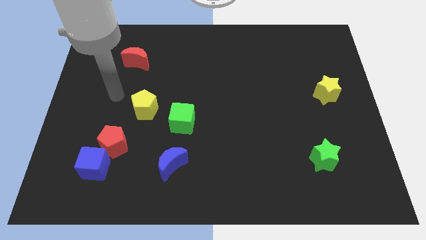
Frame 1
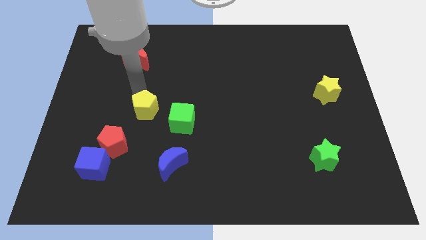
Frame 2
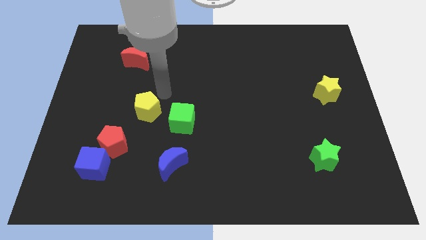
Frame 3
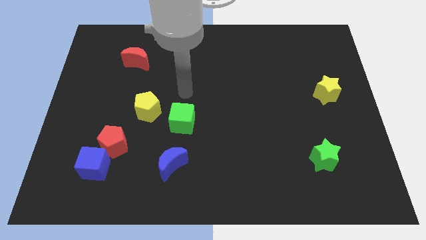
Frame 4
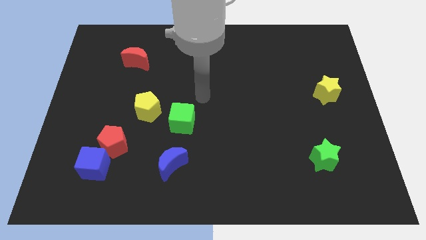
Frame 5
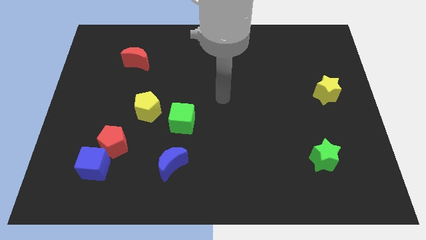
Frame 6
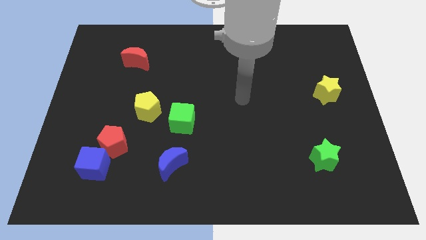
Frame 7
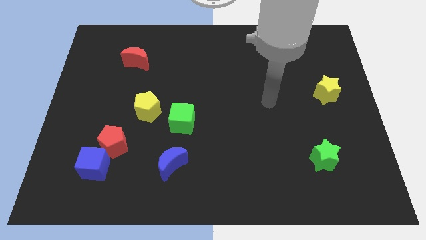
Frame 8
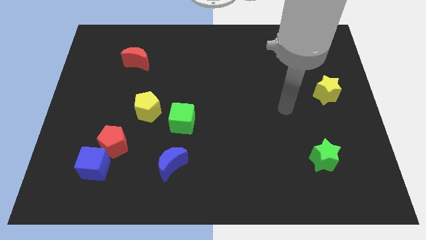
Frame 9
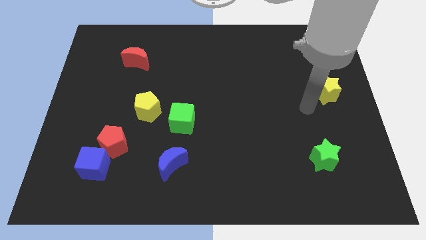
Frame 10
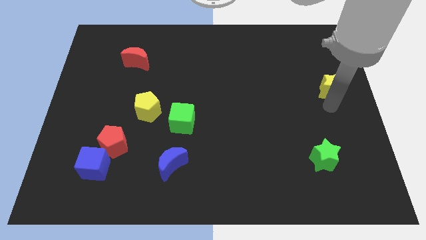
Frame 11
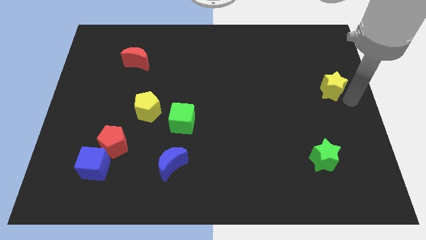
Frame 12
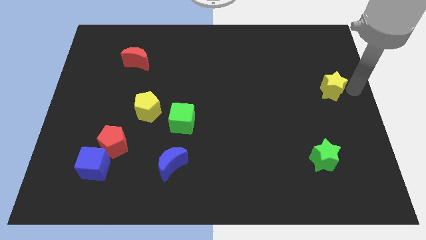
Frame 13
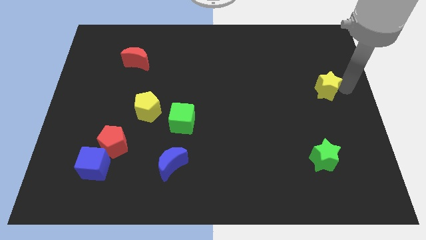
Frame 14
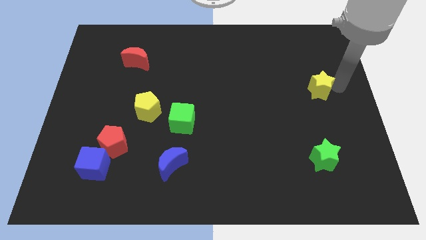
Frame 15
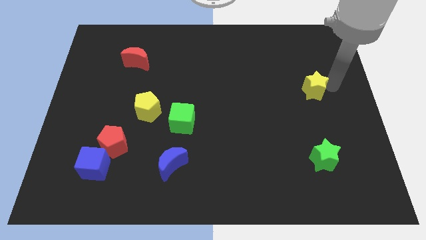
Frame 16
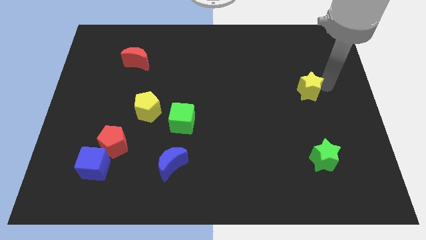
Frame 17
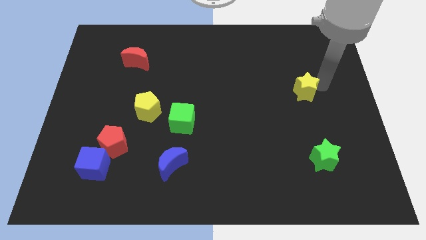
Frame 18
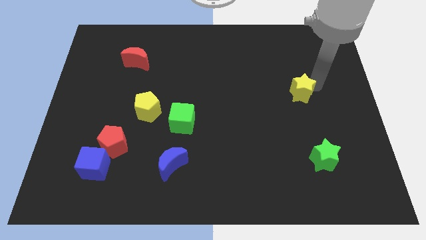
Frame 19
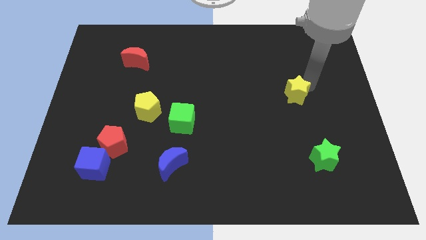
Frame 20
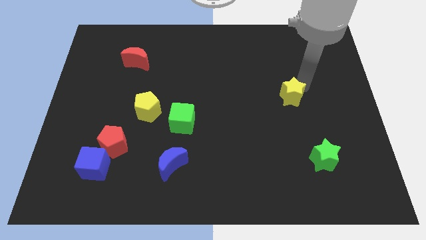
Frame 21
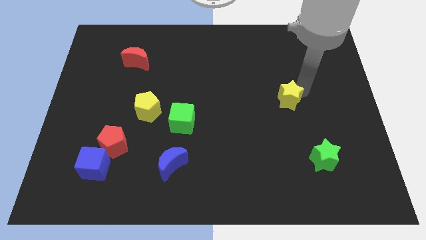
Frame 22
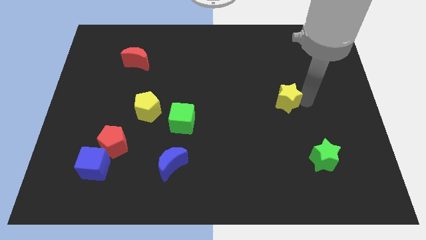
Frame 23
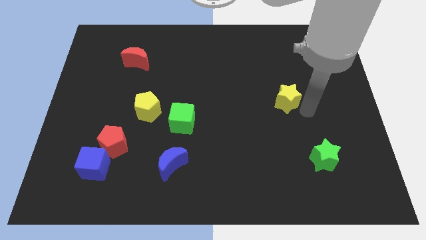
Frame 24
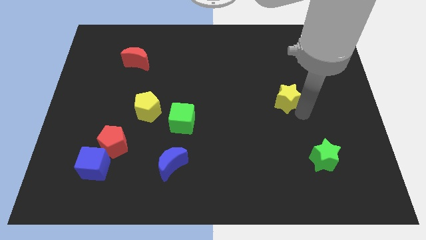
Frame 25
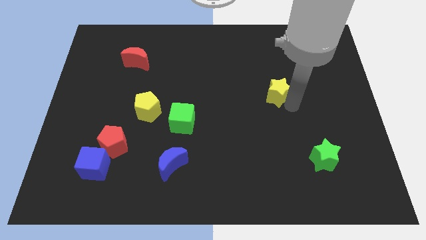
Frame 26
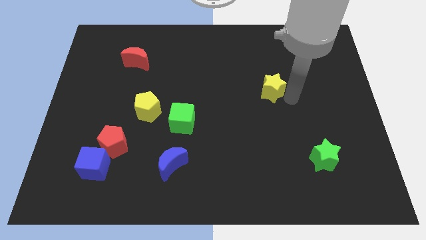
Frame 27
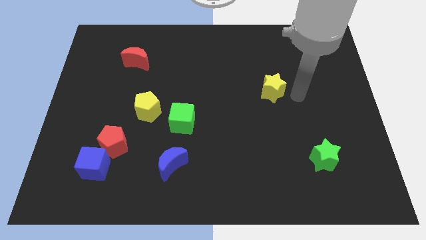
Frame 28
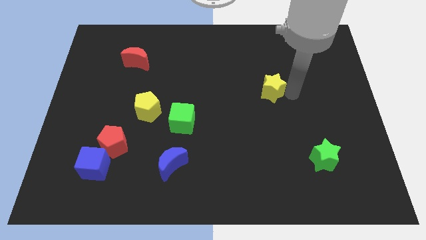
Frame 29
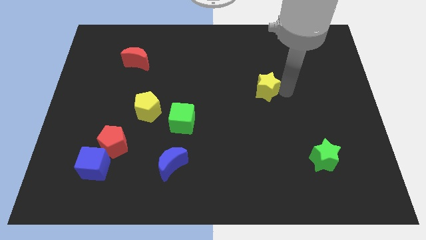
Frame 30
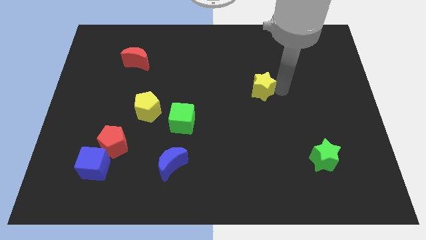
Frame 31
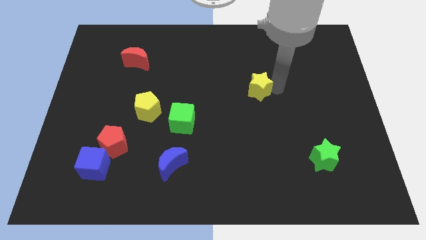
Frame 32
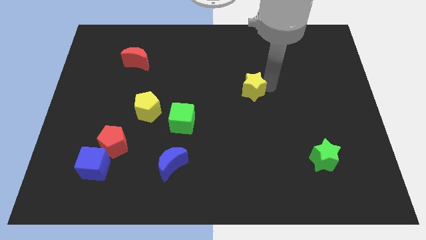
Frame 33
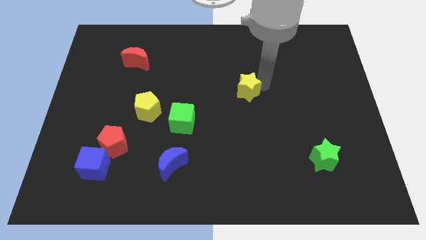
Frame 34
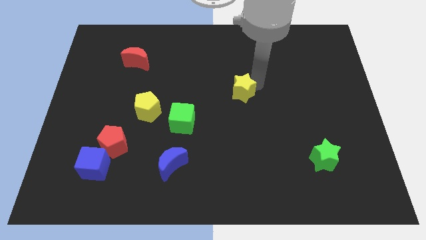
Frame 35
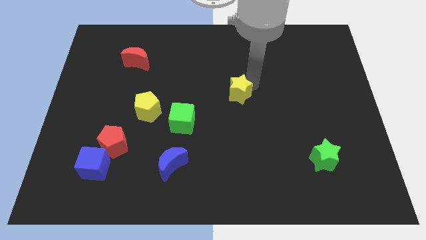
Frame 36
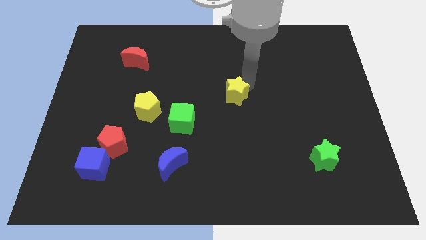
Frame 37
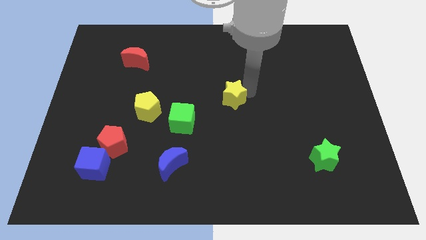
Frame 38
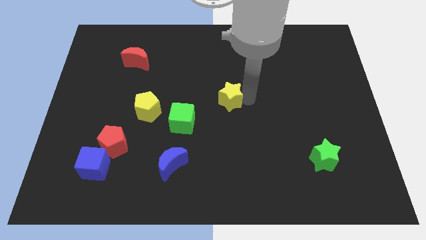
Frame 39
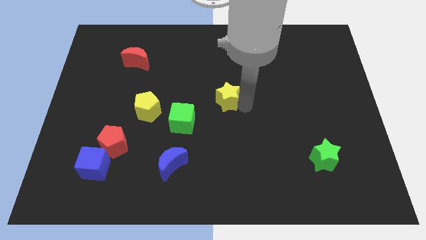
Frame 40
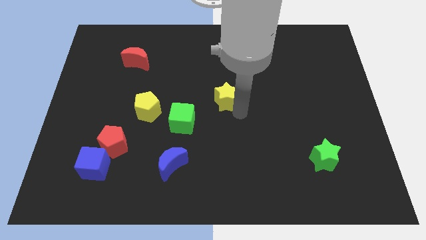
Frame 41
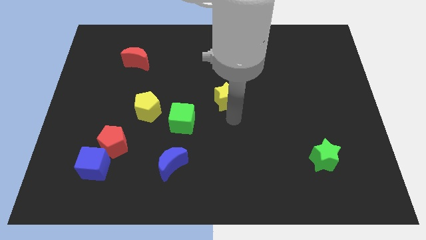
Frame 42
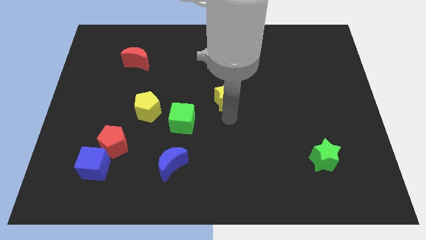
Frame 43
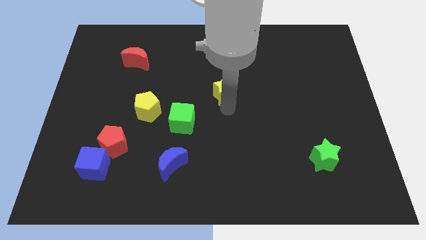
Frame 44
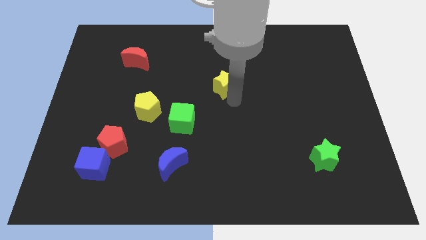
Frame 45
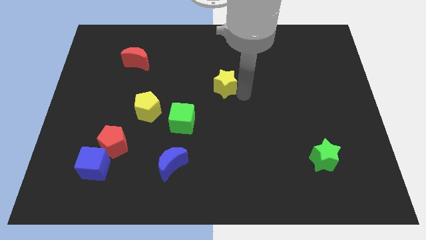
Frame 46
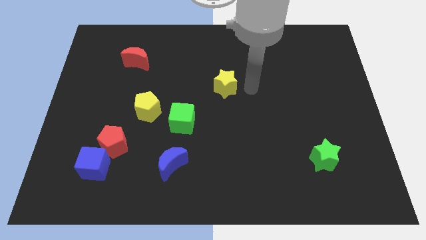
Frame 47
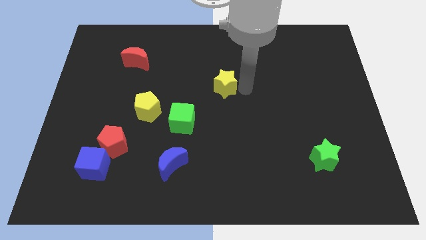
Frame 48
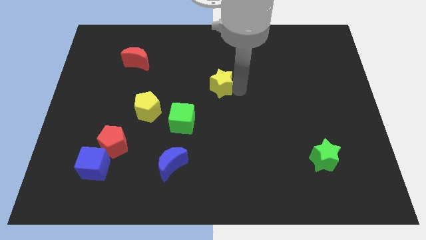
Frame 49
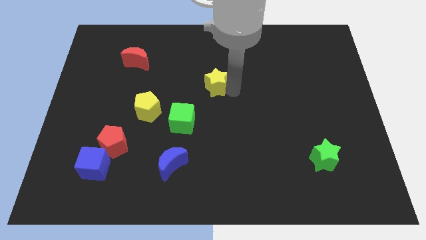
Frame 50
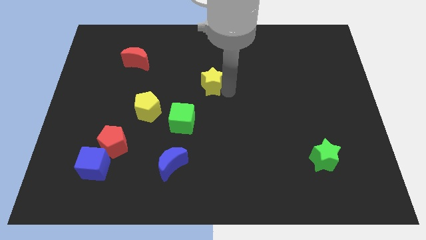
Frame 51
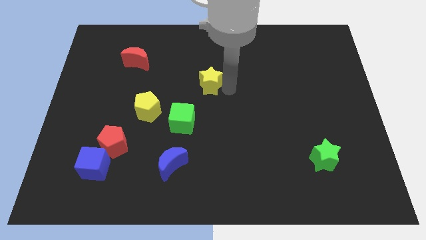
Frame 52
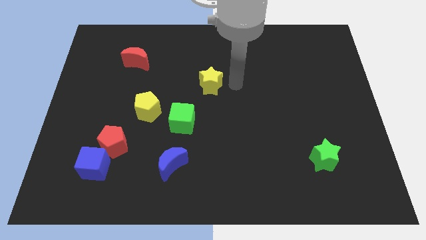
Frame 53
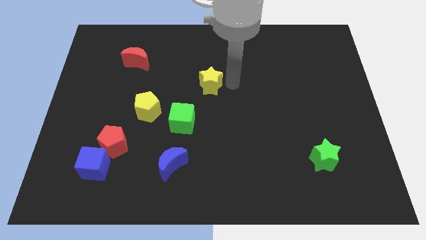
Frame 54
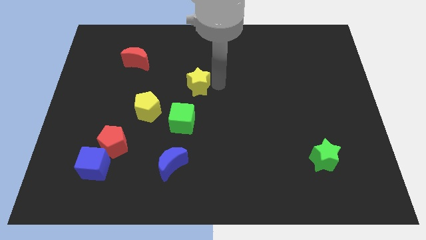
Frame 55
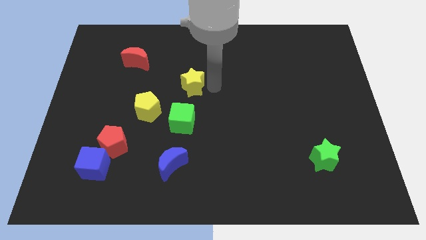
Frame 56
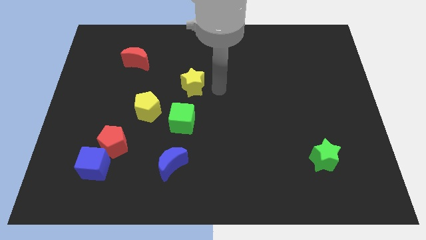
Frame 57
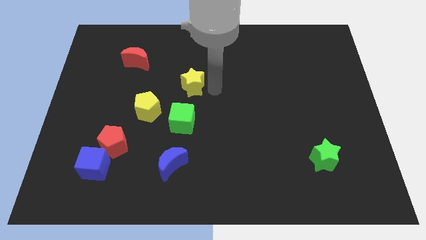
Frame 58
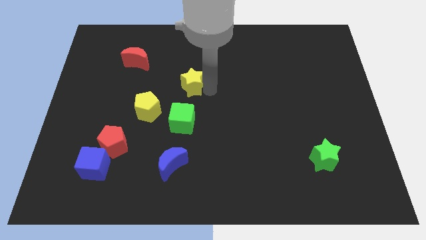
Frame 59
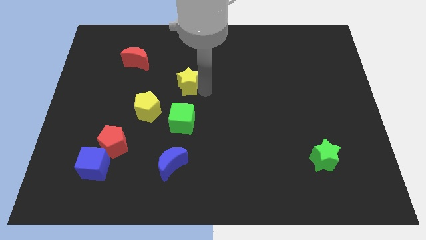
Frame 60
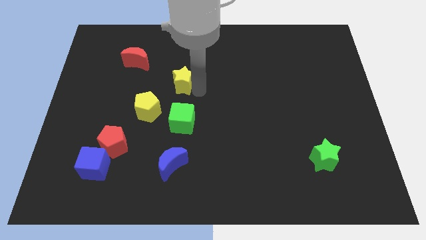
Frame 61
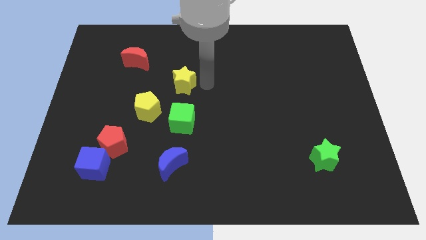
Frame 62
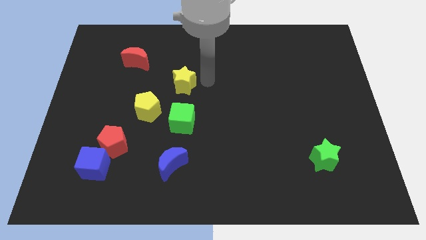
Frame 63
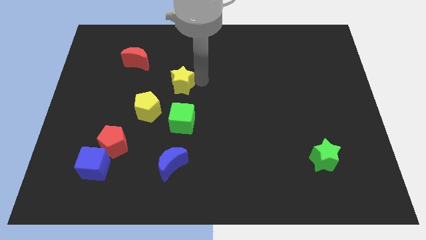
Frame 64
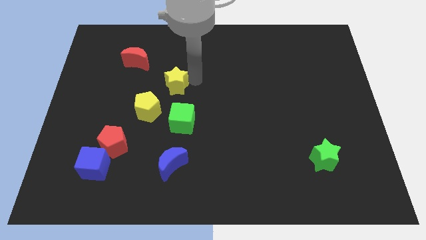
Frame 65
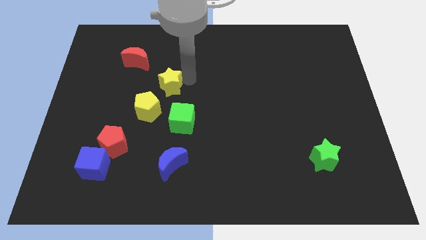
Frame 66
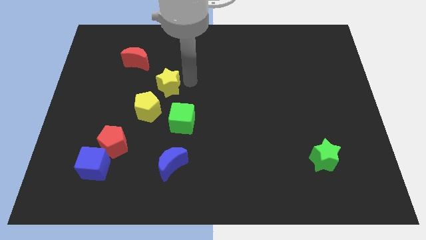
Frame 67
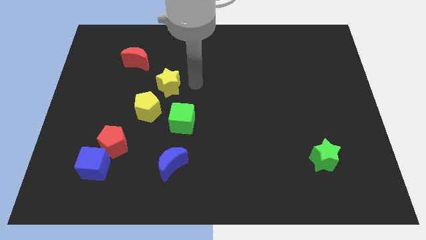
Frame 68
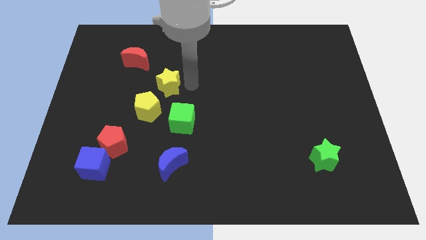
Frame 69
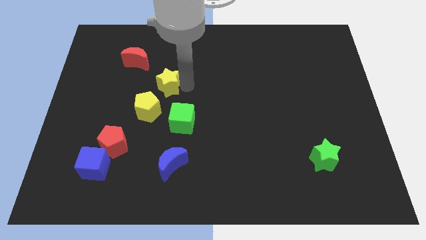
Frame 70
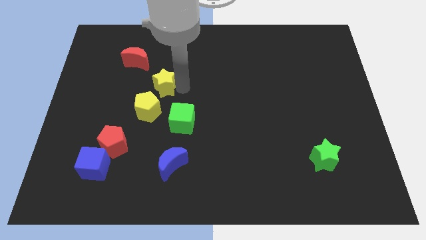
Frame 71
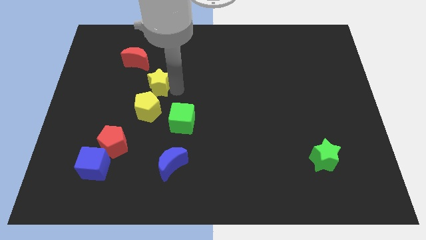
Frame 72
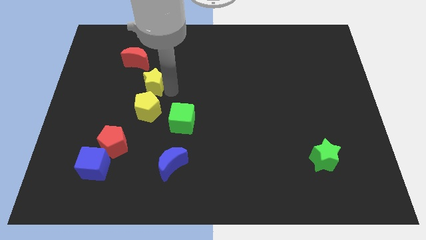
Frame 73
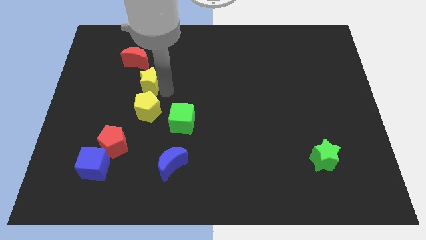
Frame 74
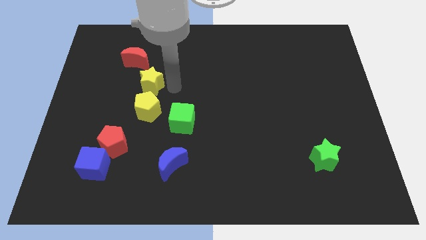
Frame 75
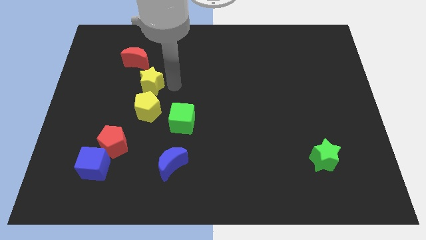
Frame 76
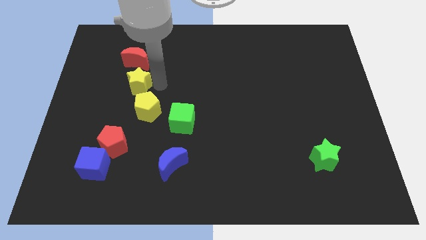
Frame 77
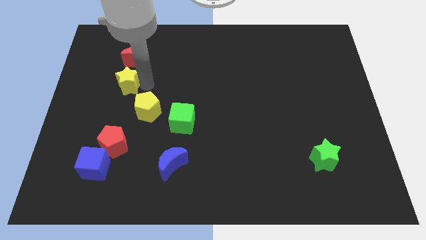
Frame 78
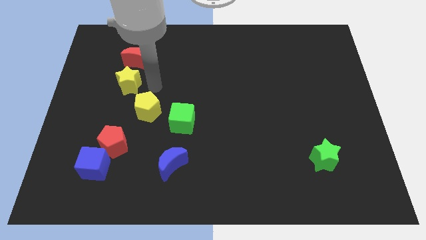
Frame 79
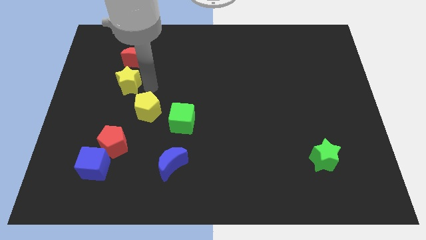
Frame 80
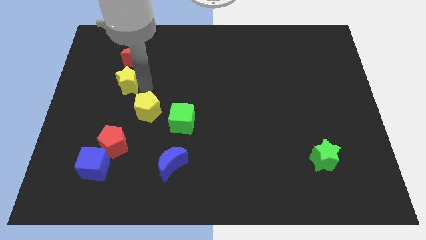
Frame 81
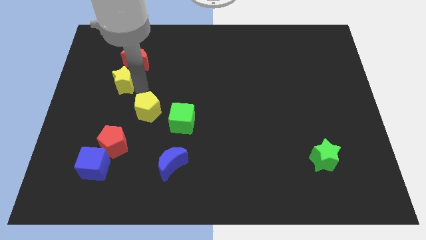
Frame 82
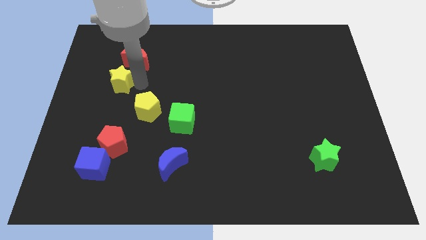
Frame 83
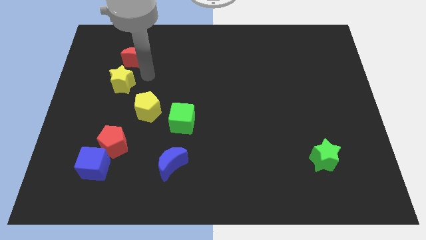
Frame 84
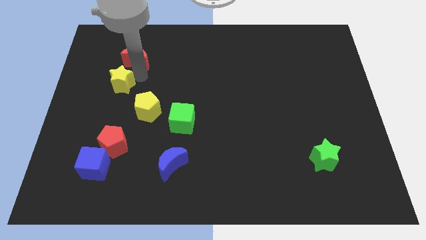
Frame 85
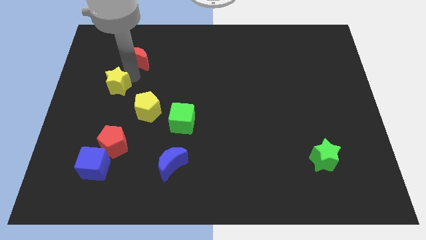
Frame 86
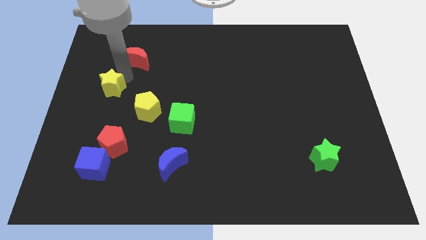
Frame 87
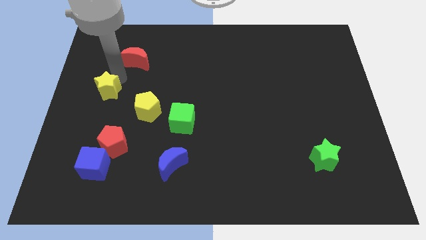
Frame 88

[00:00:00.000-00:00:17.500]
push the yellow star to the left side of the board
